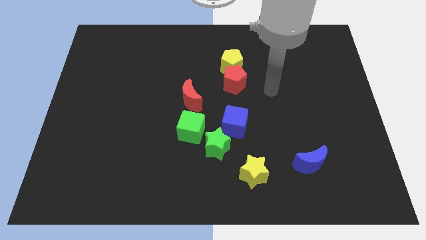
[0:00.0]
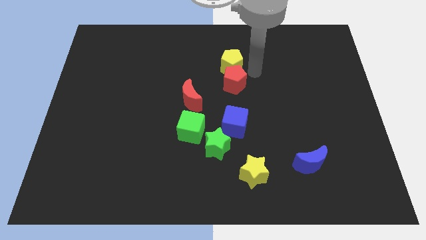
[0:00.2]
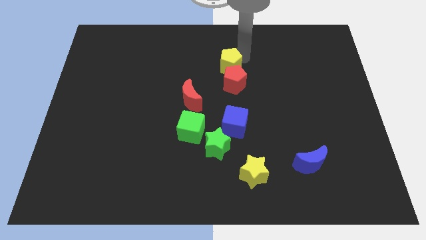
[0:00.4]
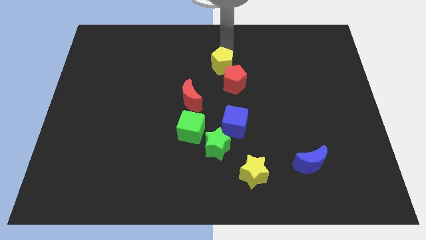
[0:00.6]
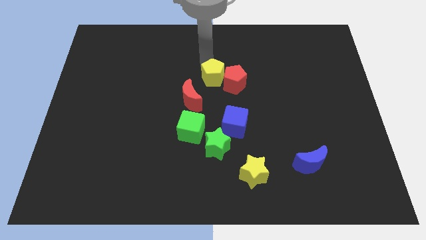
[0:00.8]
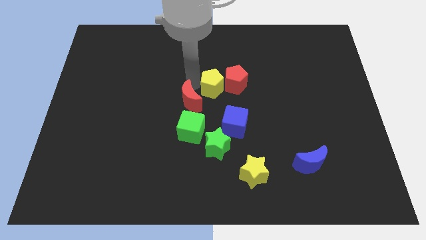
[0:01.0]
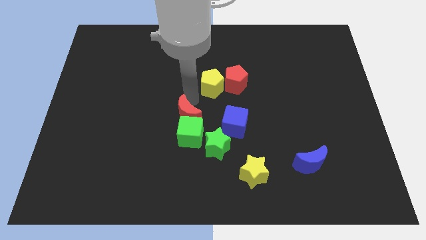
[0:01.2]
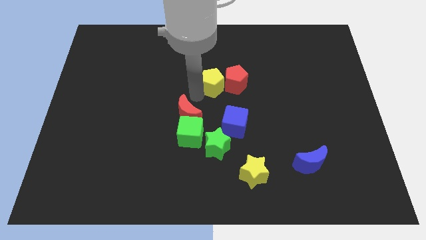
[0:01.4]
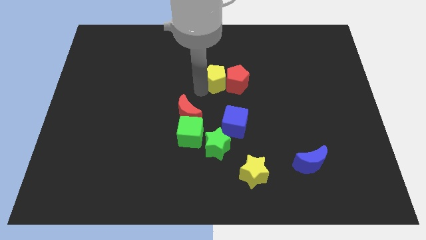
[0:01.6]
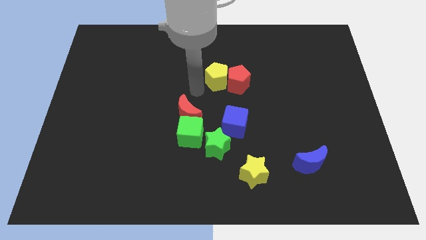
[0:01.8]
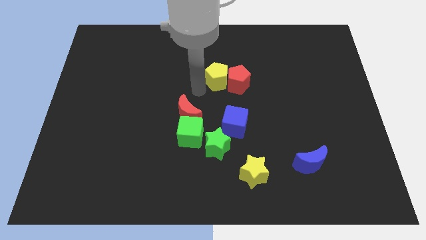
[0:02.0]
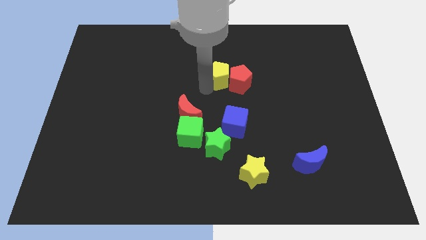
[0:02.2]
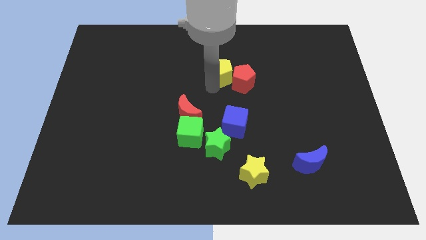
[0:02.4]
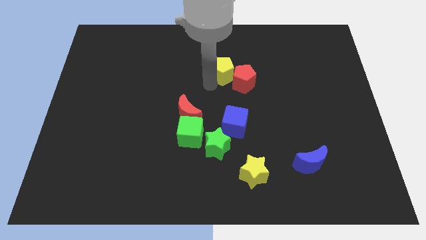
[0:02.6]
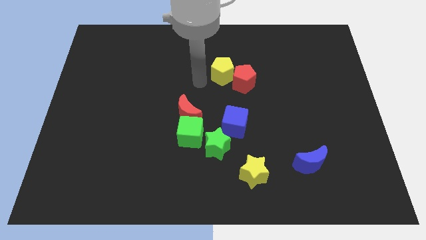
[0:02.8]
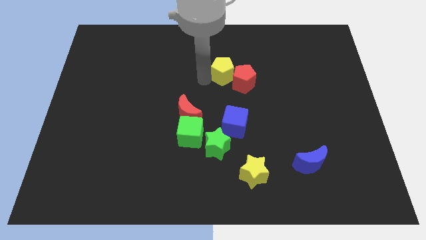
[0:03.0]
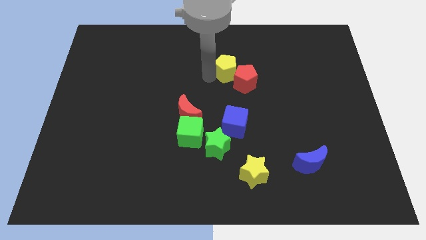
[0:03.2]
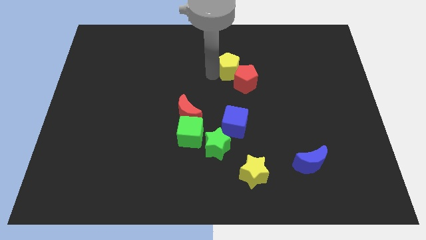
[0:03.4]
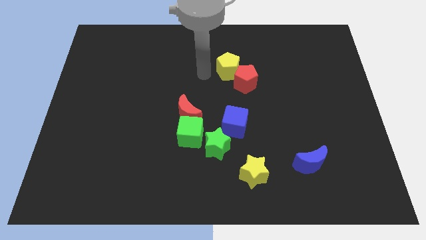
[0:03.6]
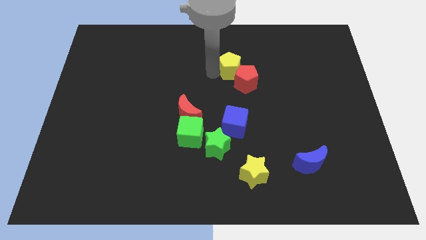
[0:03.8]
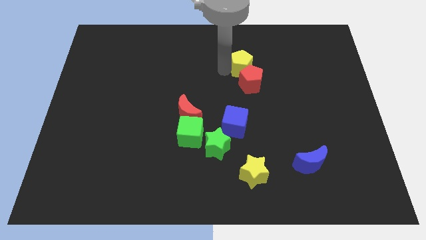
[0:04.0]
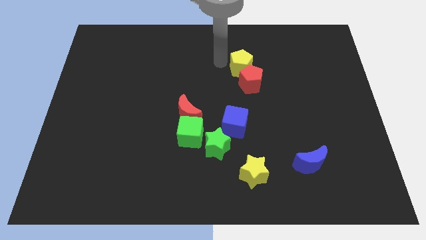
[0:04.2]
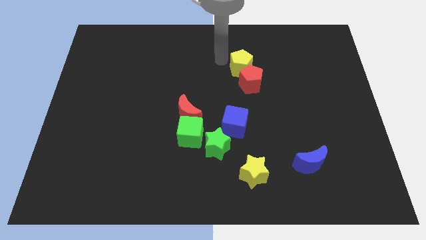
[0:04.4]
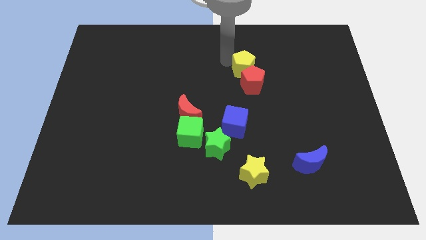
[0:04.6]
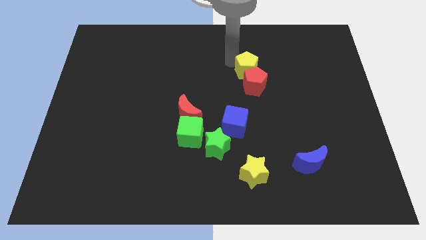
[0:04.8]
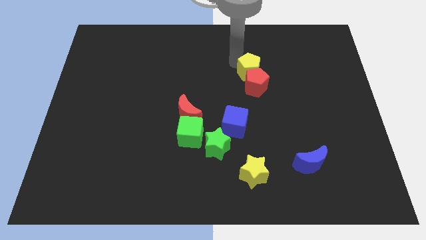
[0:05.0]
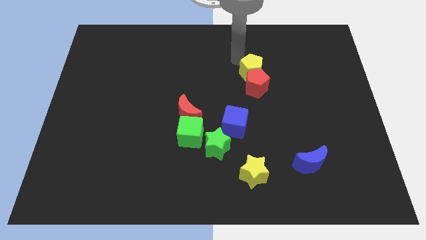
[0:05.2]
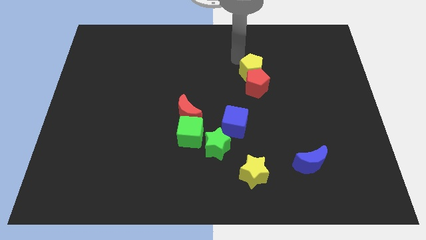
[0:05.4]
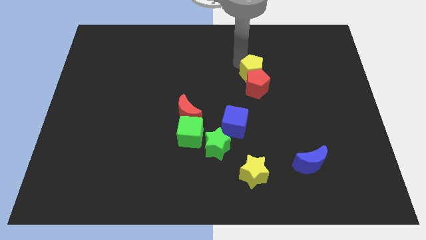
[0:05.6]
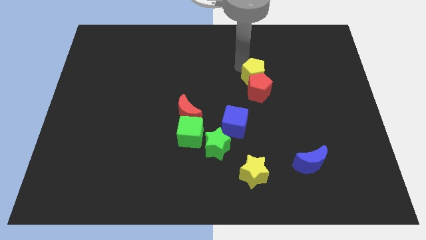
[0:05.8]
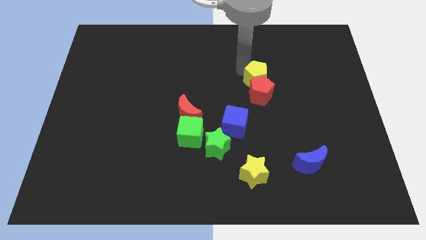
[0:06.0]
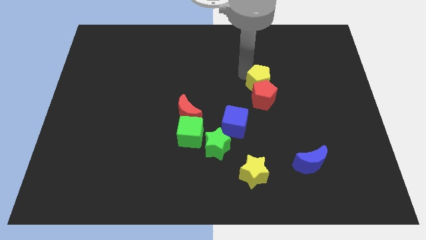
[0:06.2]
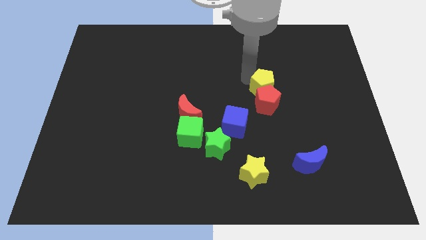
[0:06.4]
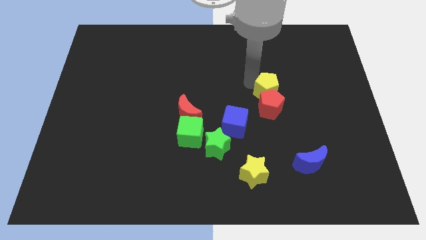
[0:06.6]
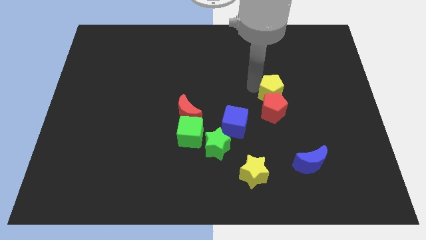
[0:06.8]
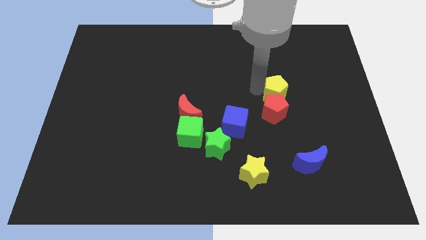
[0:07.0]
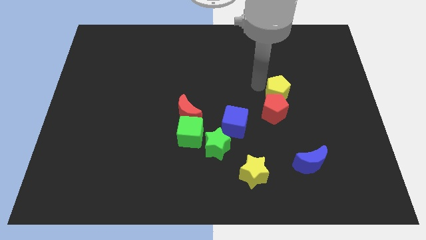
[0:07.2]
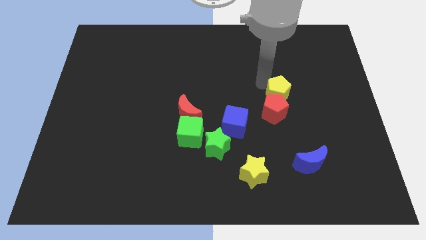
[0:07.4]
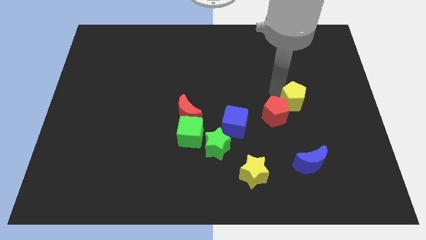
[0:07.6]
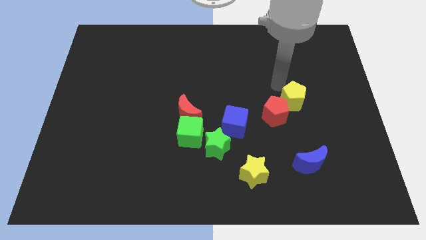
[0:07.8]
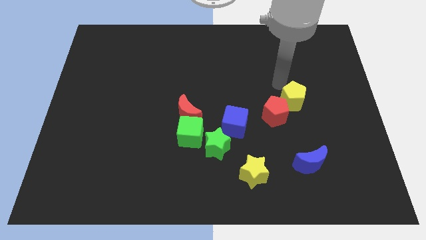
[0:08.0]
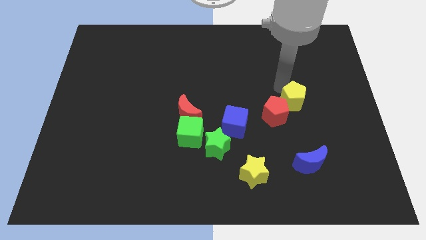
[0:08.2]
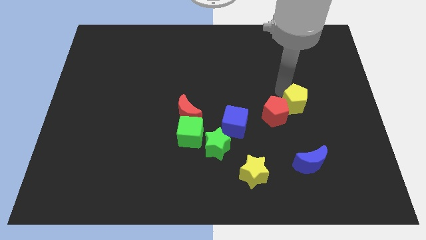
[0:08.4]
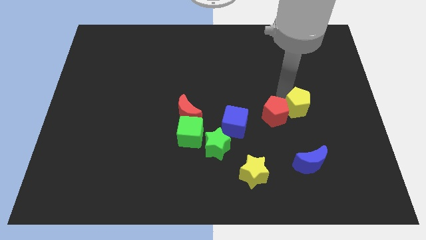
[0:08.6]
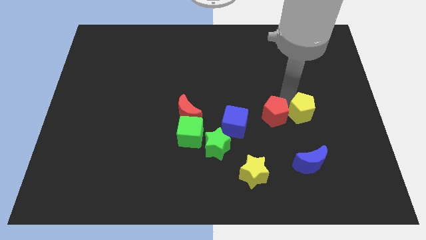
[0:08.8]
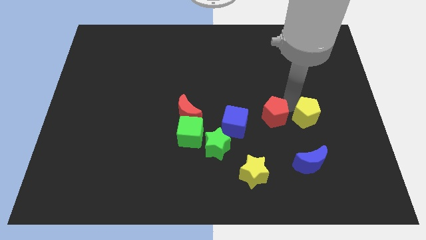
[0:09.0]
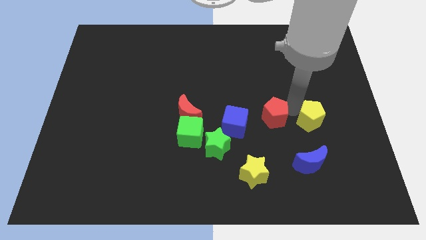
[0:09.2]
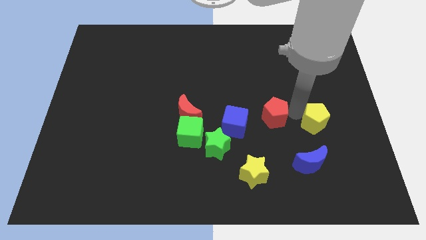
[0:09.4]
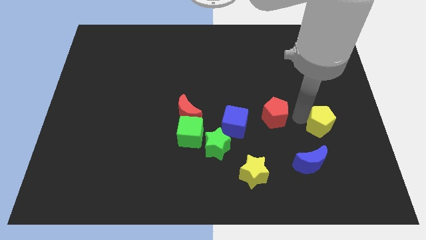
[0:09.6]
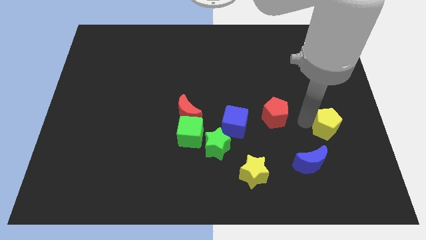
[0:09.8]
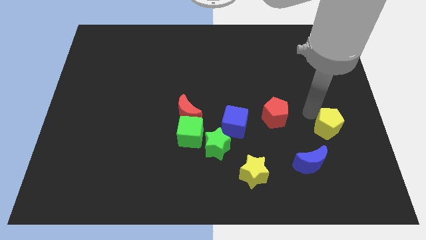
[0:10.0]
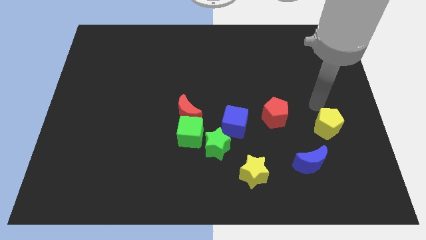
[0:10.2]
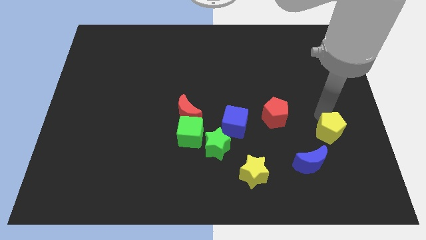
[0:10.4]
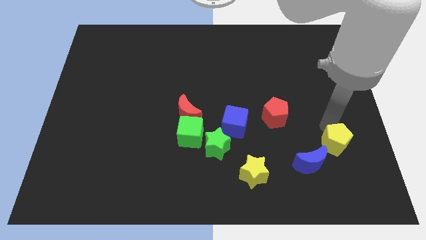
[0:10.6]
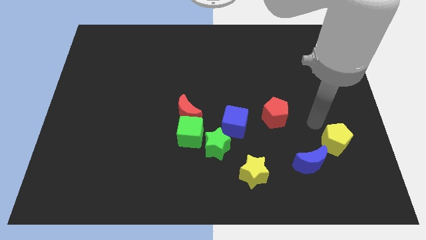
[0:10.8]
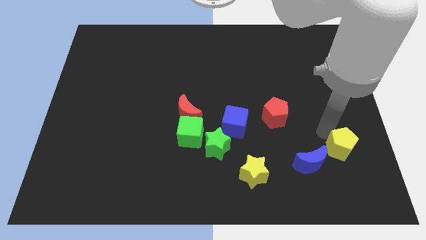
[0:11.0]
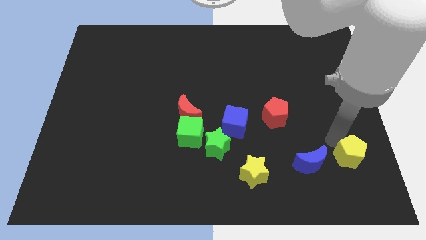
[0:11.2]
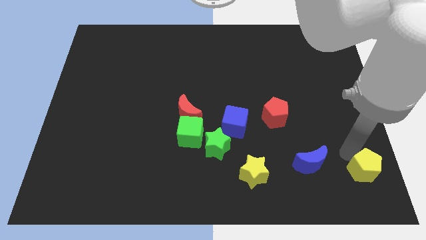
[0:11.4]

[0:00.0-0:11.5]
move the yellow pentagon to the lower right corner

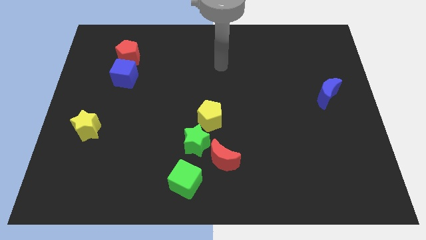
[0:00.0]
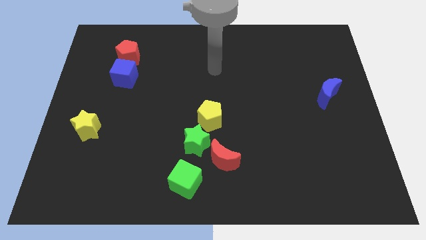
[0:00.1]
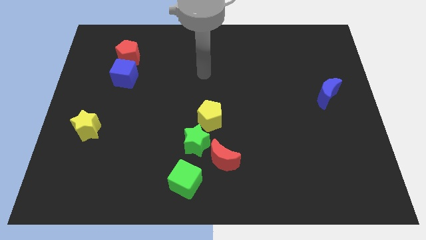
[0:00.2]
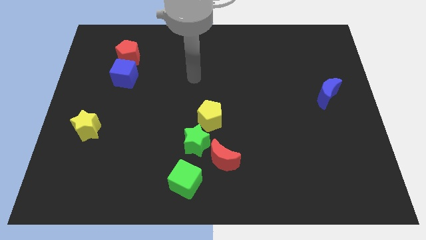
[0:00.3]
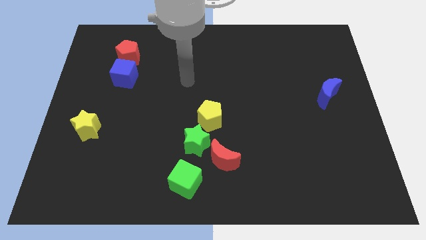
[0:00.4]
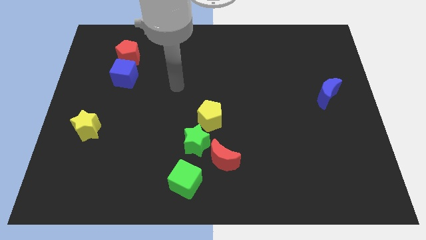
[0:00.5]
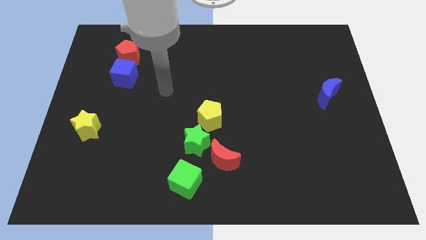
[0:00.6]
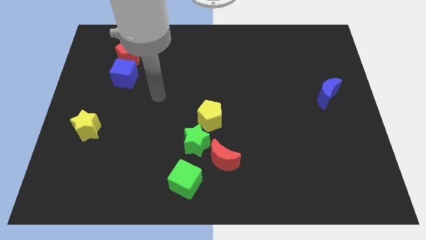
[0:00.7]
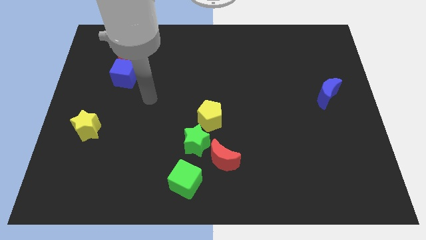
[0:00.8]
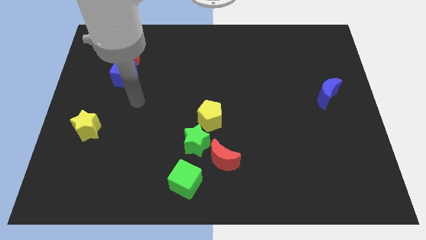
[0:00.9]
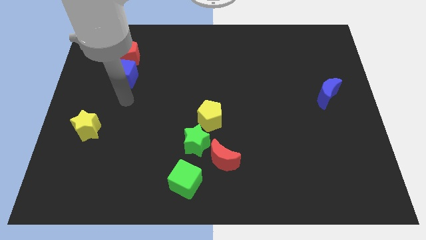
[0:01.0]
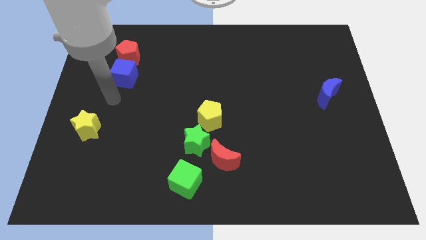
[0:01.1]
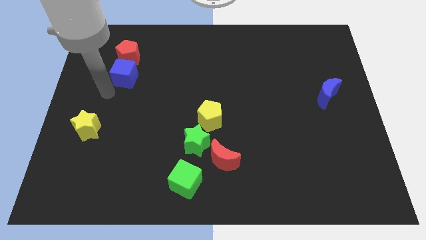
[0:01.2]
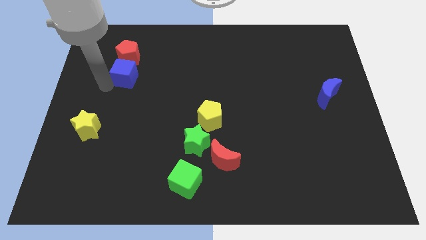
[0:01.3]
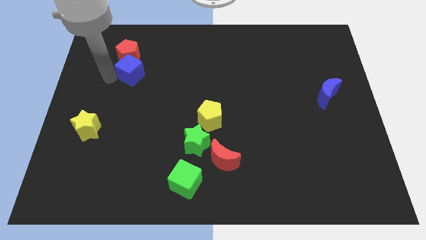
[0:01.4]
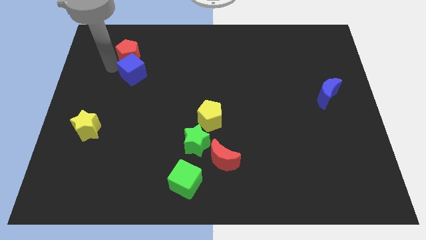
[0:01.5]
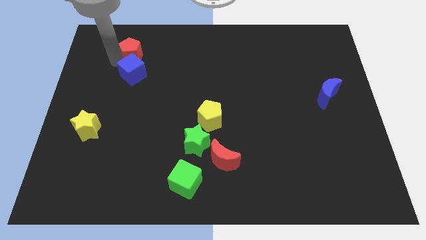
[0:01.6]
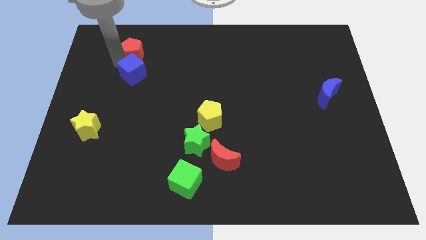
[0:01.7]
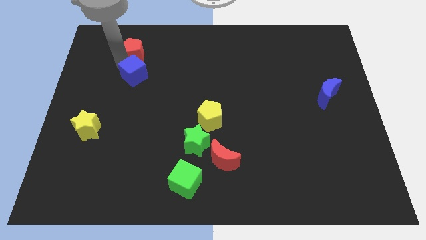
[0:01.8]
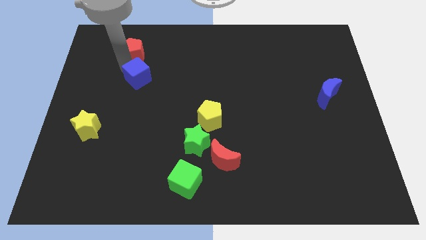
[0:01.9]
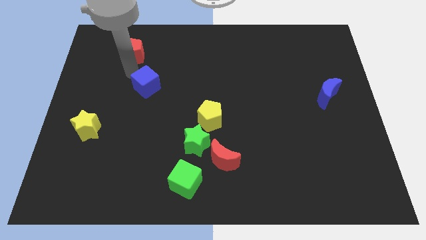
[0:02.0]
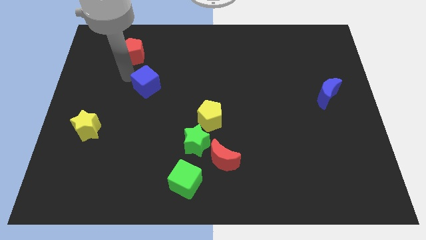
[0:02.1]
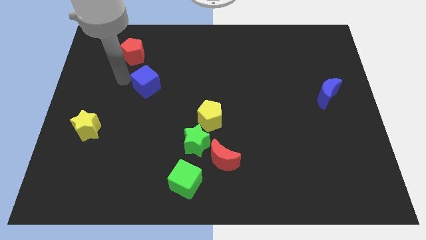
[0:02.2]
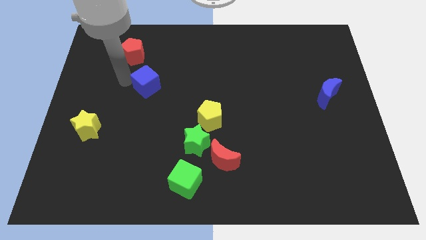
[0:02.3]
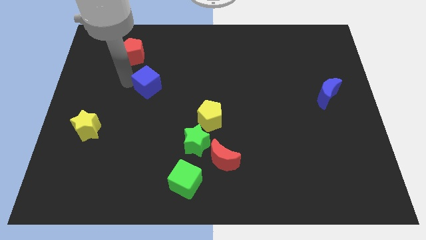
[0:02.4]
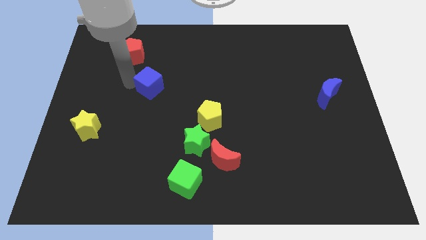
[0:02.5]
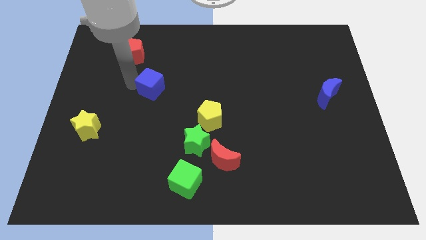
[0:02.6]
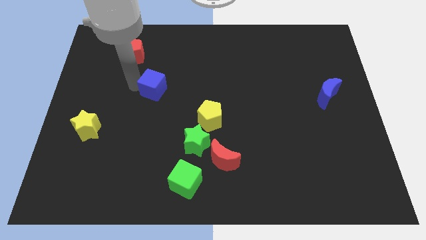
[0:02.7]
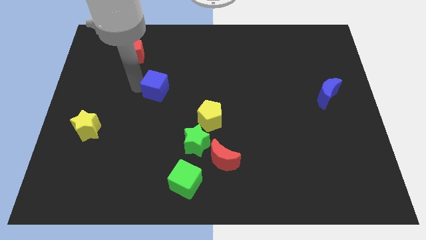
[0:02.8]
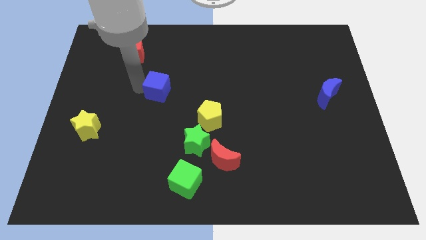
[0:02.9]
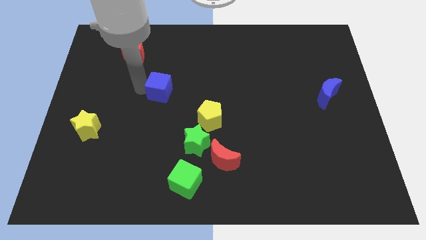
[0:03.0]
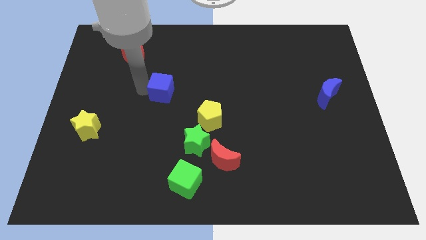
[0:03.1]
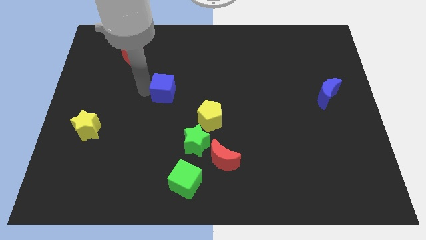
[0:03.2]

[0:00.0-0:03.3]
push the blue cube to the middle of the board
